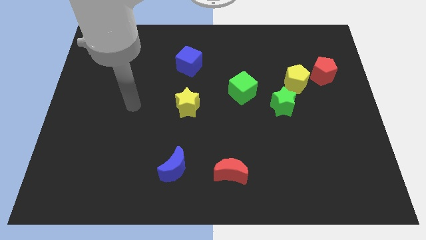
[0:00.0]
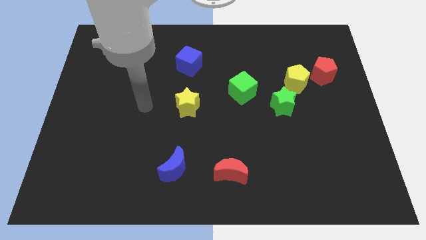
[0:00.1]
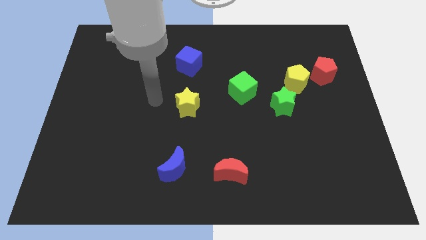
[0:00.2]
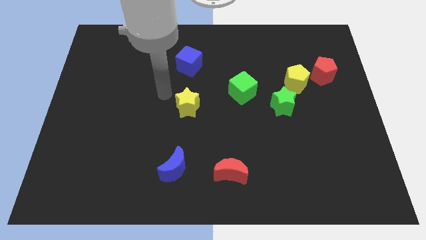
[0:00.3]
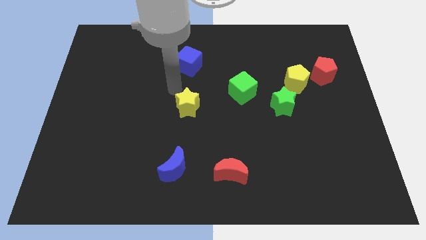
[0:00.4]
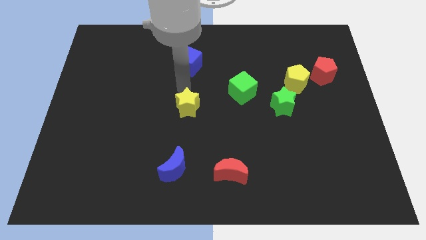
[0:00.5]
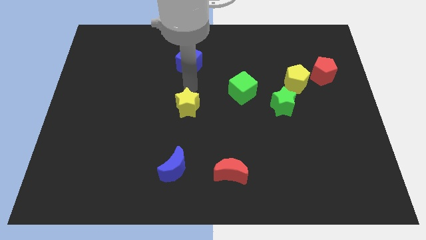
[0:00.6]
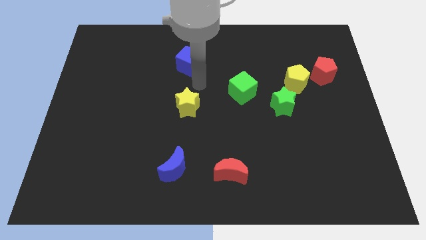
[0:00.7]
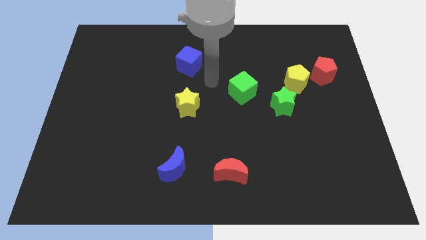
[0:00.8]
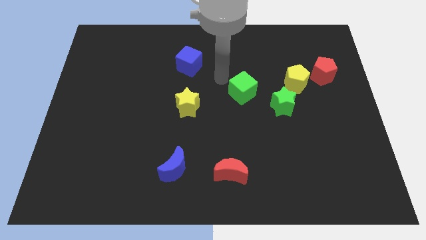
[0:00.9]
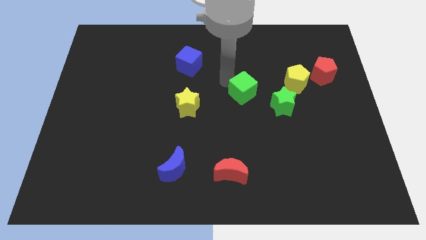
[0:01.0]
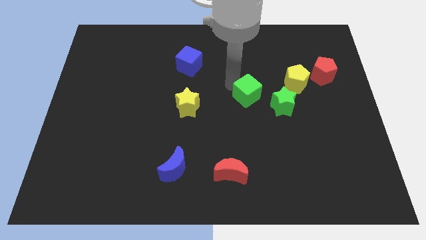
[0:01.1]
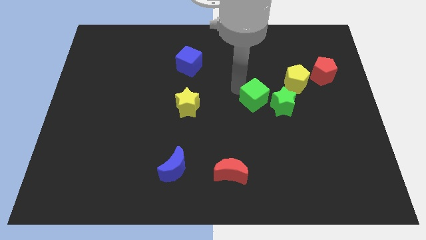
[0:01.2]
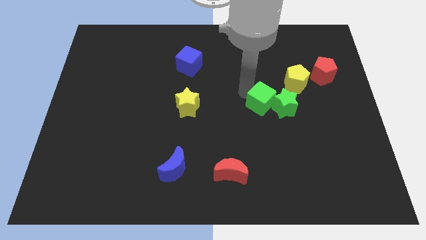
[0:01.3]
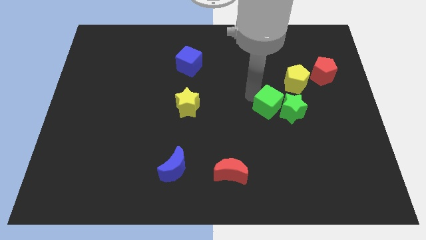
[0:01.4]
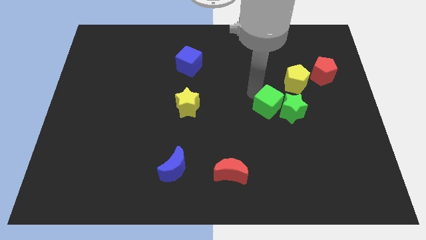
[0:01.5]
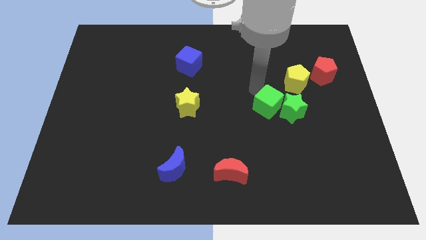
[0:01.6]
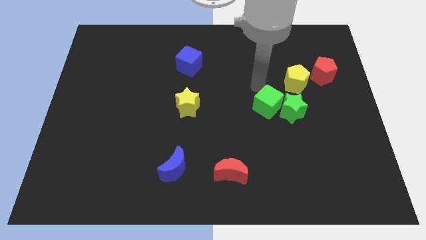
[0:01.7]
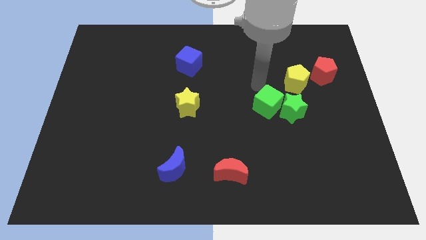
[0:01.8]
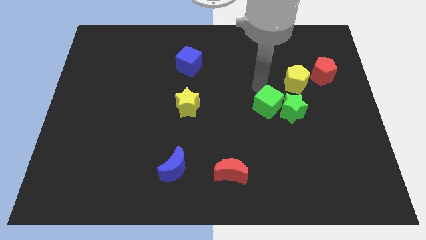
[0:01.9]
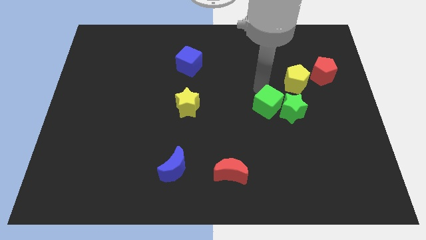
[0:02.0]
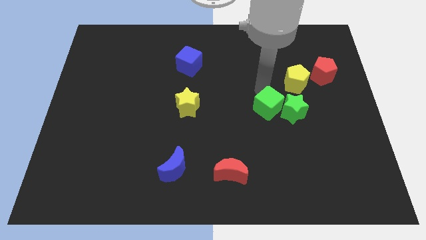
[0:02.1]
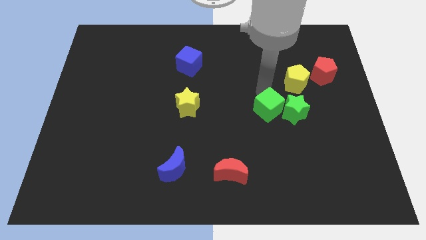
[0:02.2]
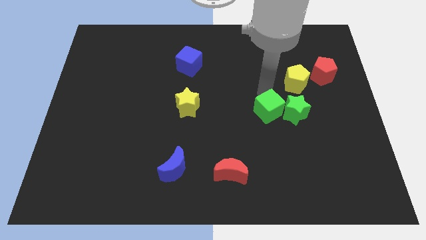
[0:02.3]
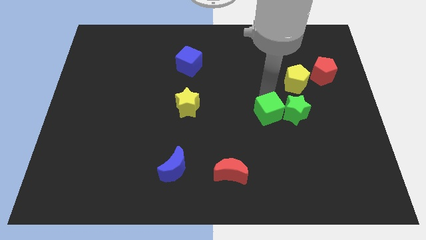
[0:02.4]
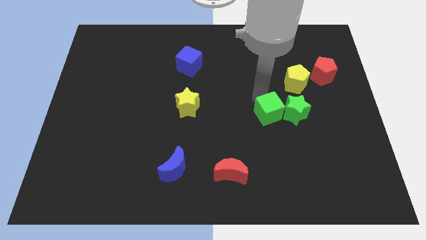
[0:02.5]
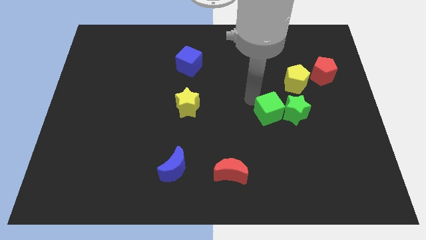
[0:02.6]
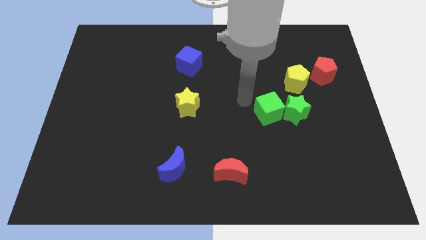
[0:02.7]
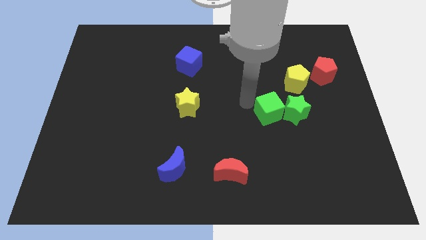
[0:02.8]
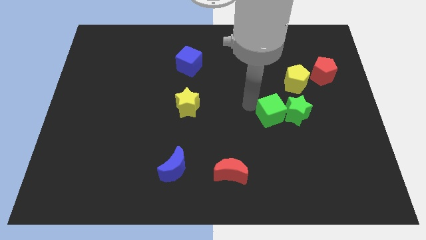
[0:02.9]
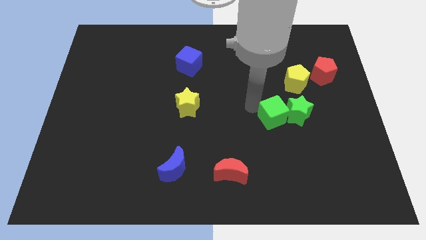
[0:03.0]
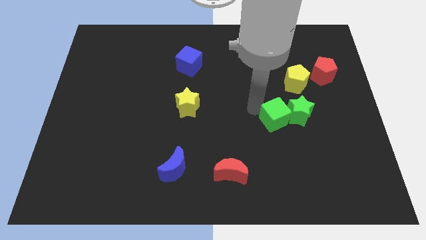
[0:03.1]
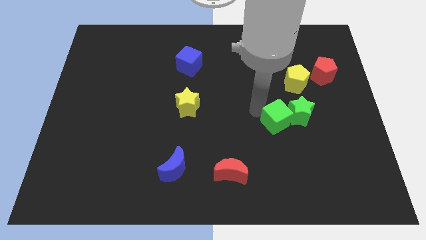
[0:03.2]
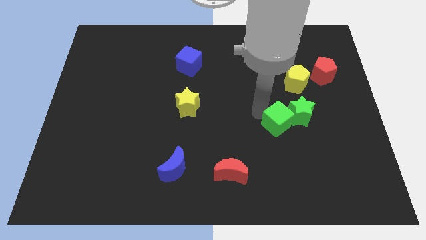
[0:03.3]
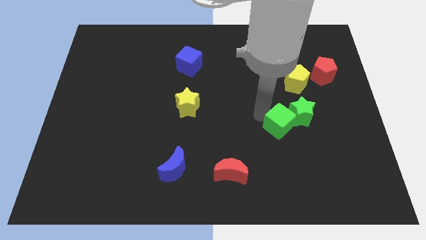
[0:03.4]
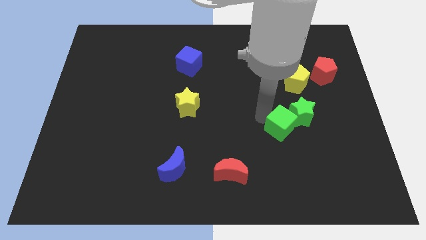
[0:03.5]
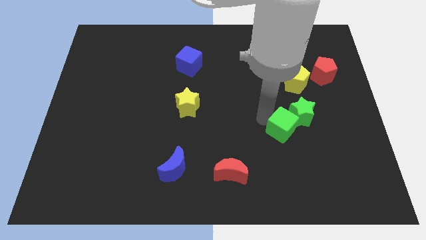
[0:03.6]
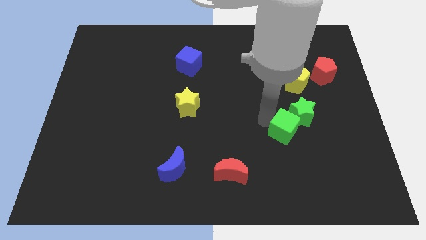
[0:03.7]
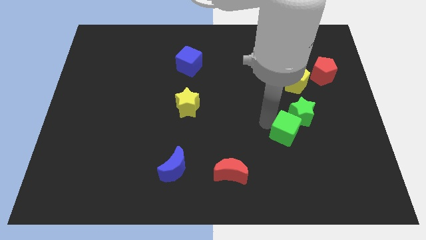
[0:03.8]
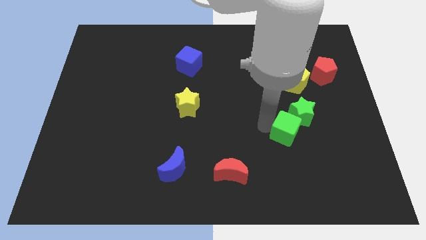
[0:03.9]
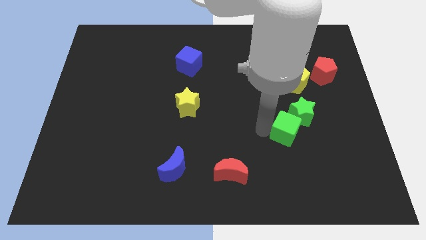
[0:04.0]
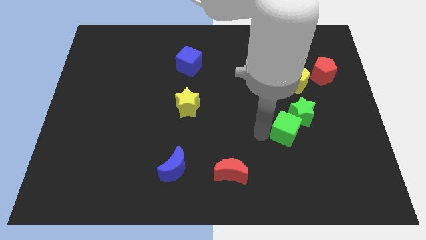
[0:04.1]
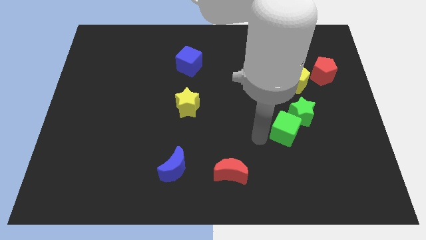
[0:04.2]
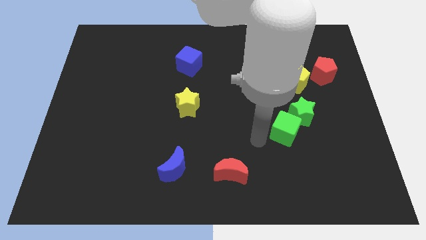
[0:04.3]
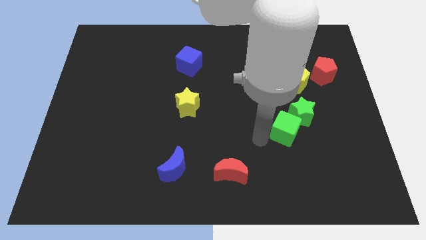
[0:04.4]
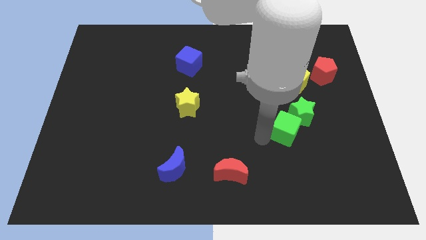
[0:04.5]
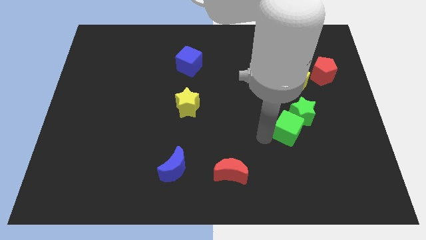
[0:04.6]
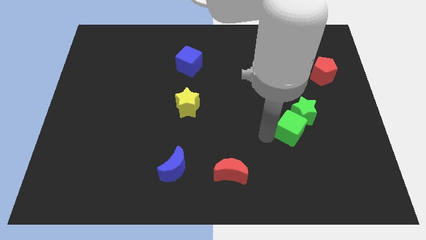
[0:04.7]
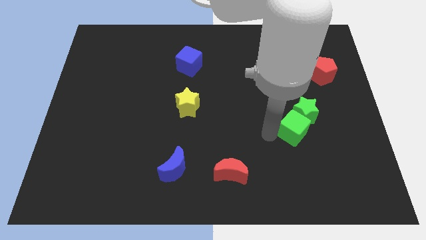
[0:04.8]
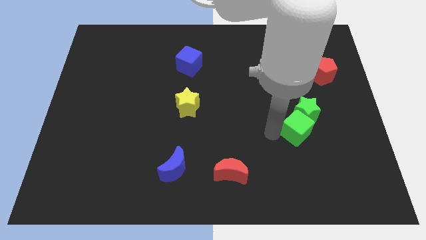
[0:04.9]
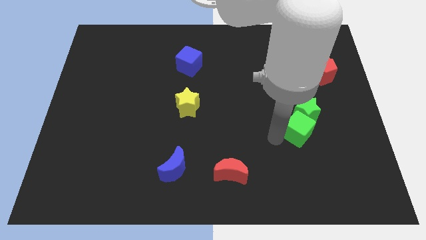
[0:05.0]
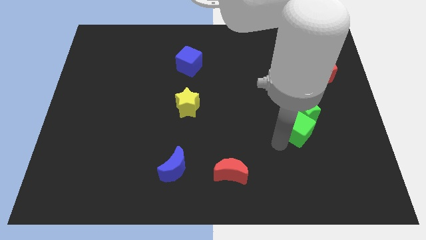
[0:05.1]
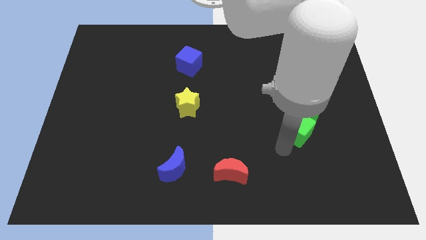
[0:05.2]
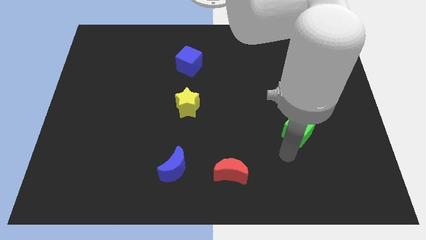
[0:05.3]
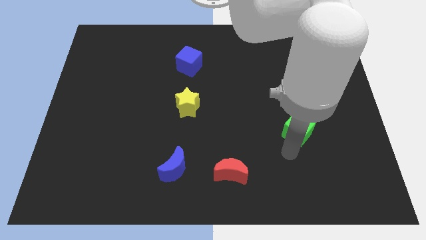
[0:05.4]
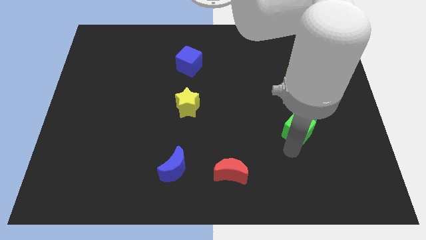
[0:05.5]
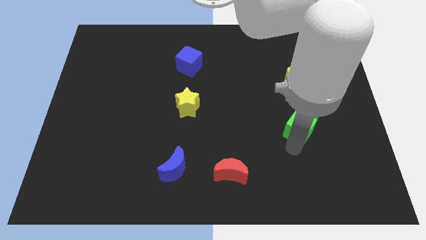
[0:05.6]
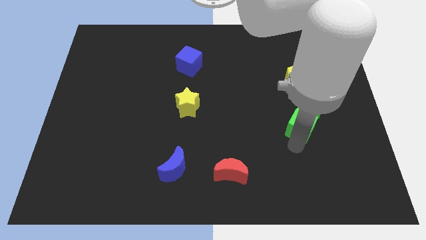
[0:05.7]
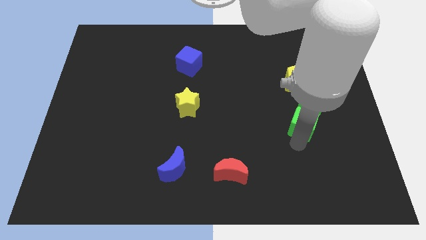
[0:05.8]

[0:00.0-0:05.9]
slightly move the green cube right

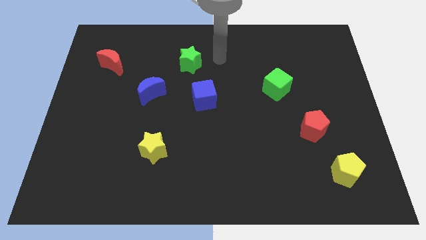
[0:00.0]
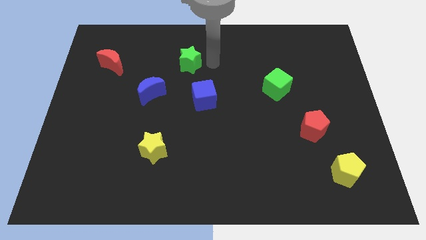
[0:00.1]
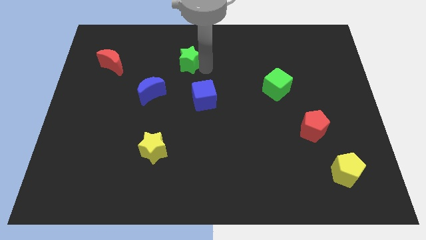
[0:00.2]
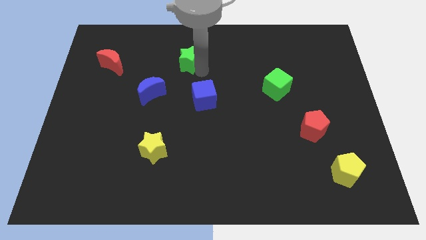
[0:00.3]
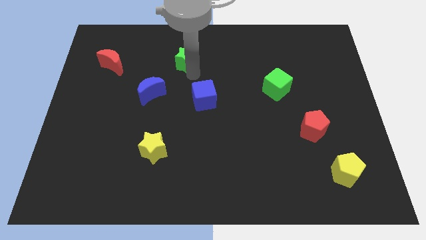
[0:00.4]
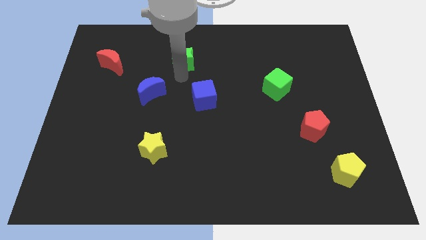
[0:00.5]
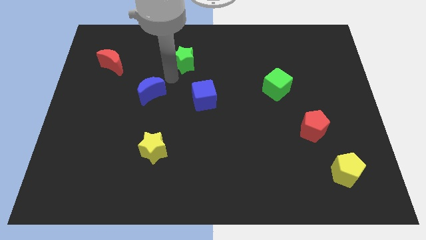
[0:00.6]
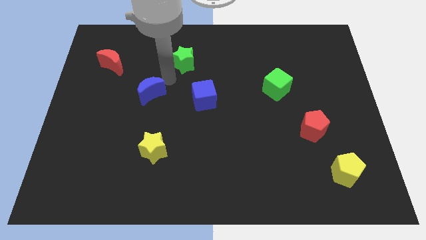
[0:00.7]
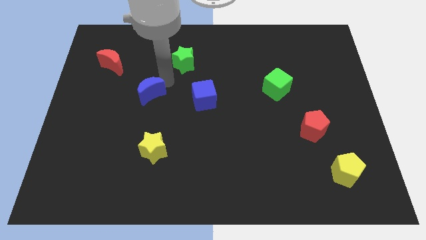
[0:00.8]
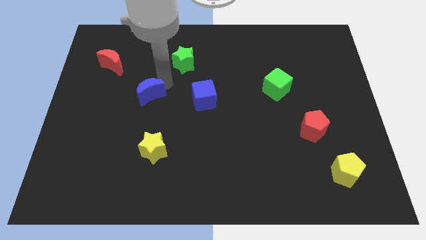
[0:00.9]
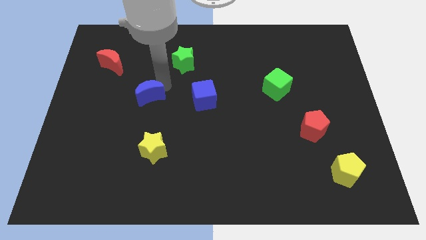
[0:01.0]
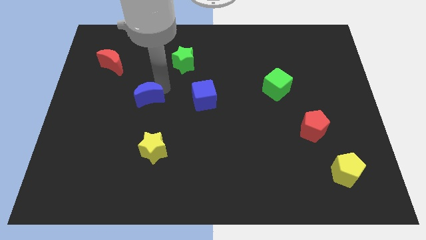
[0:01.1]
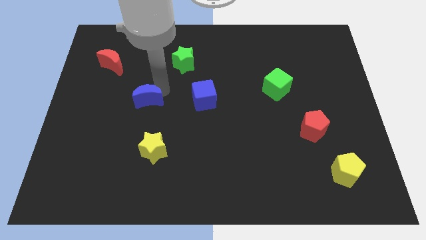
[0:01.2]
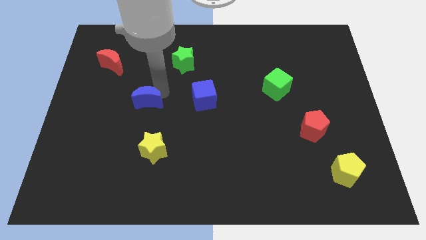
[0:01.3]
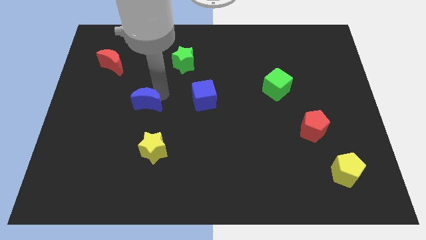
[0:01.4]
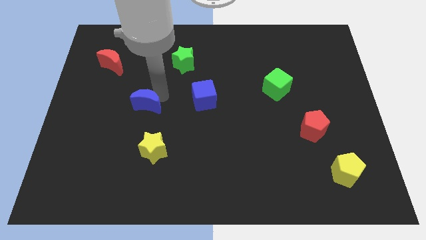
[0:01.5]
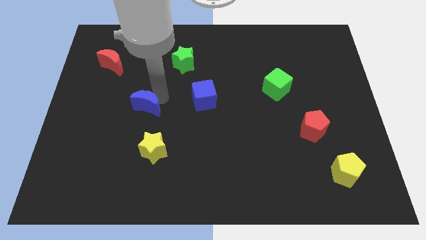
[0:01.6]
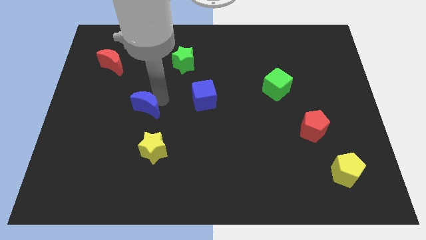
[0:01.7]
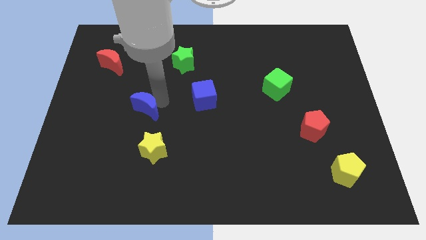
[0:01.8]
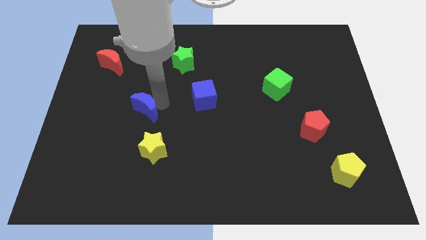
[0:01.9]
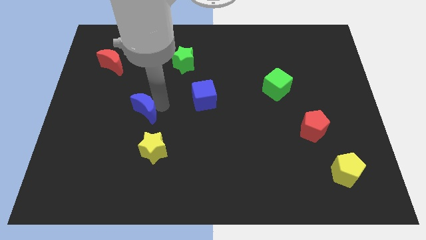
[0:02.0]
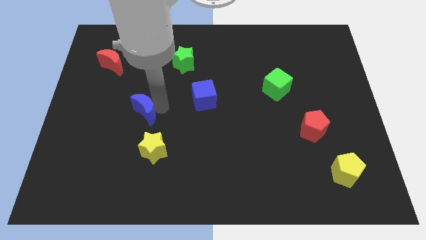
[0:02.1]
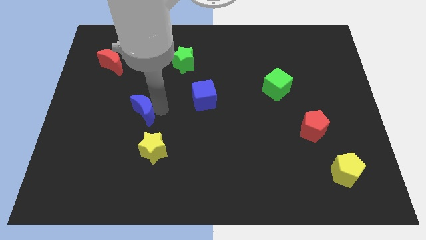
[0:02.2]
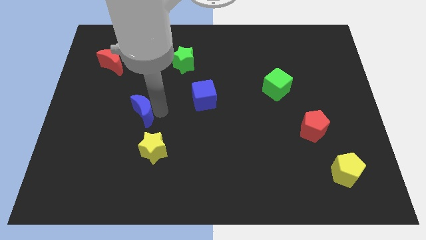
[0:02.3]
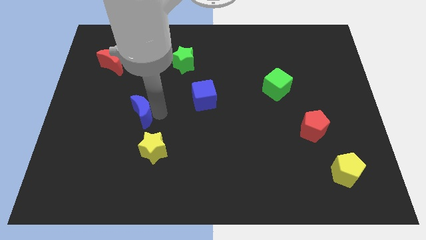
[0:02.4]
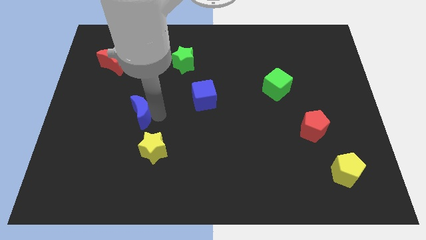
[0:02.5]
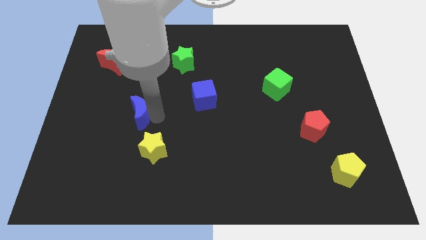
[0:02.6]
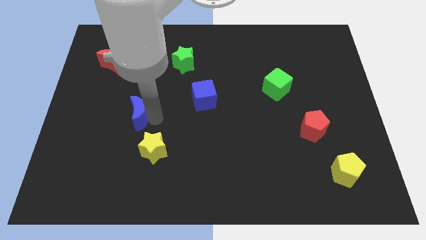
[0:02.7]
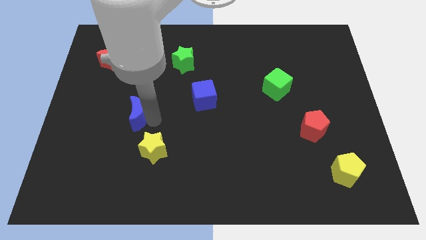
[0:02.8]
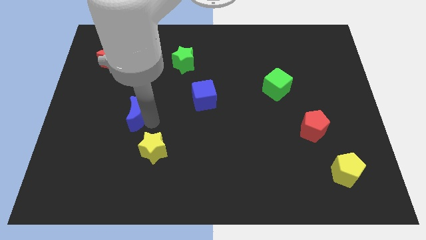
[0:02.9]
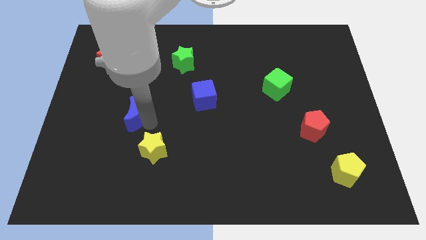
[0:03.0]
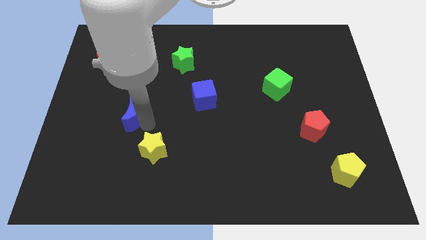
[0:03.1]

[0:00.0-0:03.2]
slide the blue moon a bit downwards and to the left
